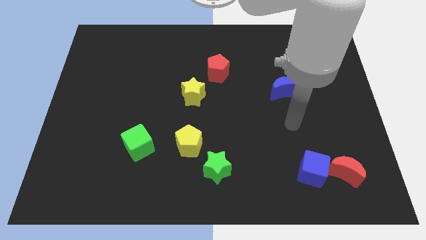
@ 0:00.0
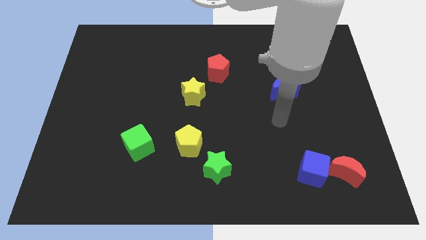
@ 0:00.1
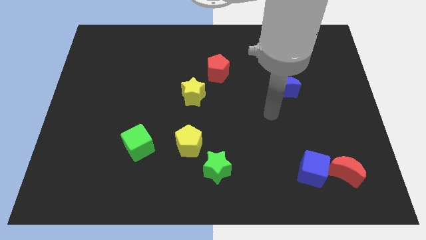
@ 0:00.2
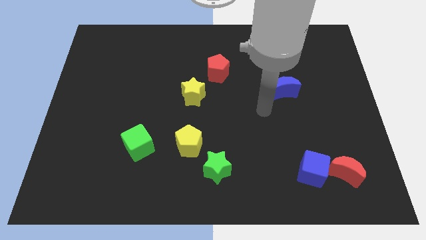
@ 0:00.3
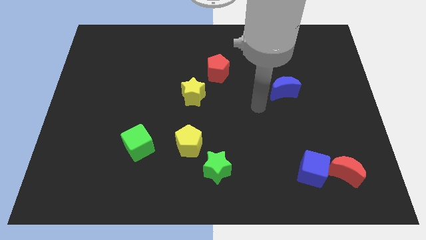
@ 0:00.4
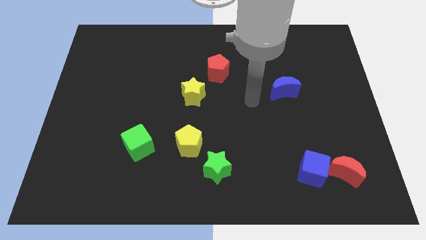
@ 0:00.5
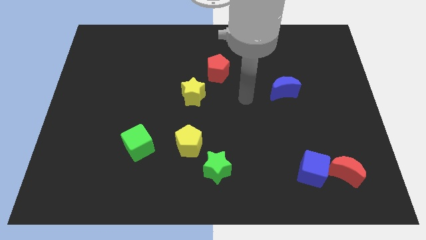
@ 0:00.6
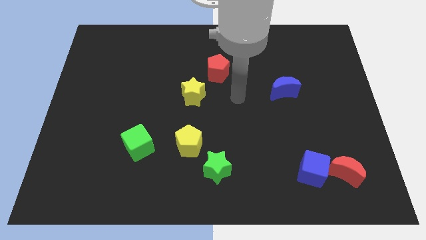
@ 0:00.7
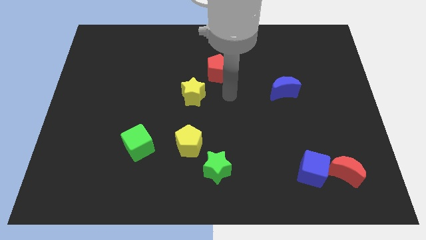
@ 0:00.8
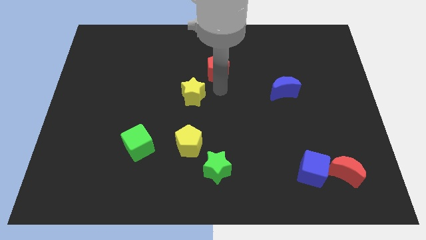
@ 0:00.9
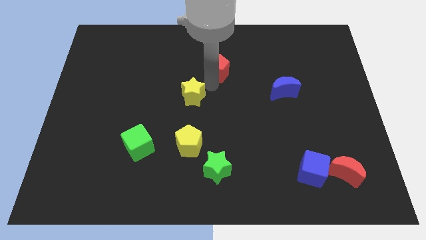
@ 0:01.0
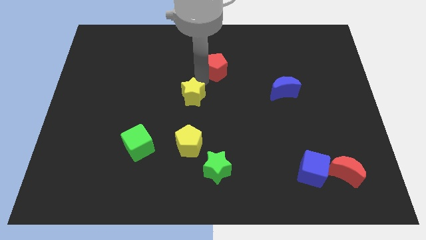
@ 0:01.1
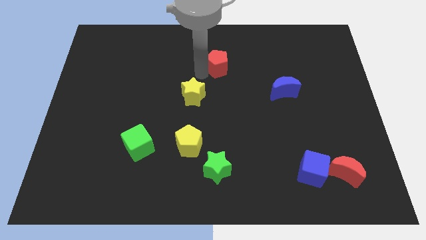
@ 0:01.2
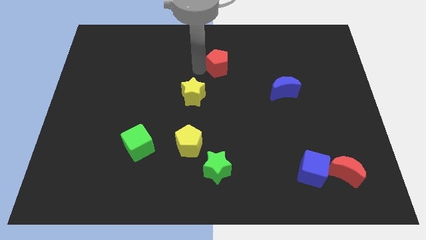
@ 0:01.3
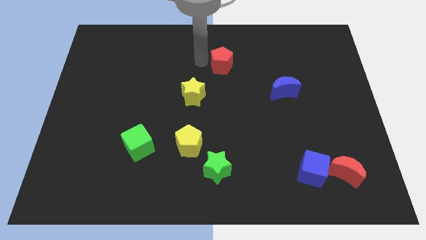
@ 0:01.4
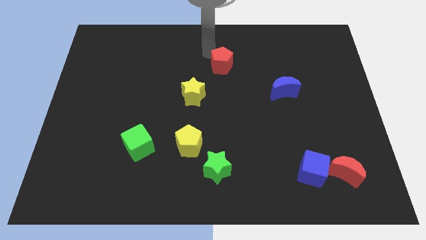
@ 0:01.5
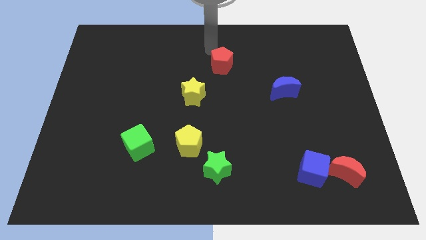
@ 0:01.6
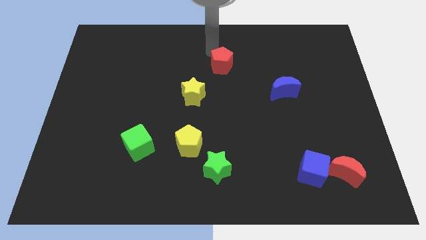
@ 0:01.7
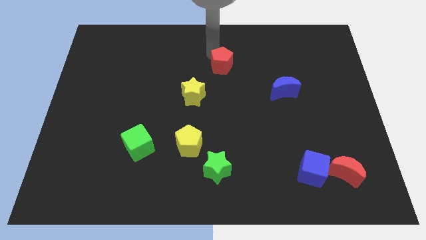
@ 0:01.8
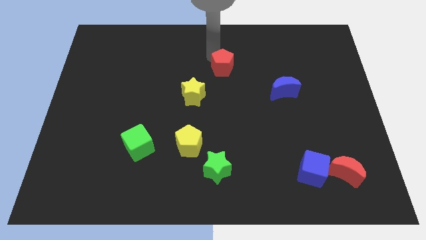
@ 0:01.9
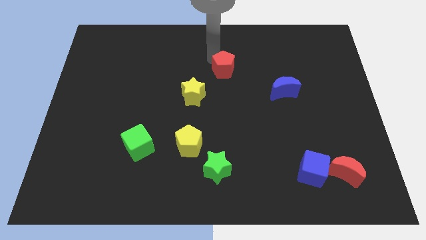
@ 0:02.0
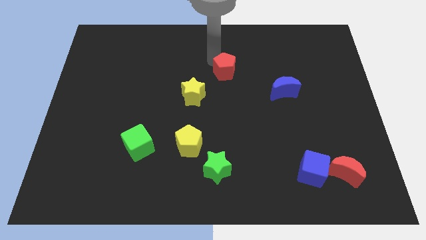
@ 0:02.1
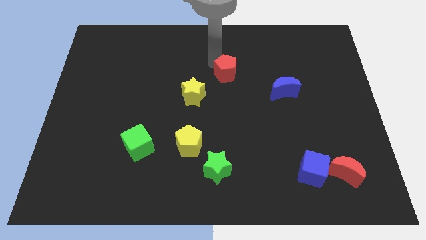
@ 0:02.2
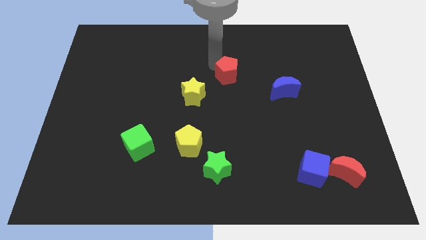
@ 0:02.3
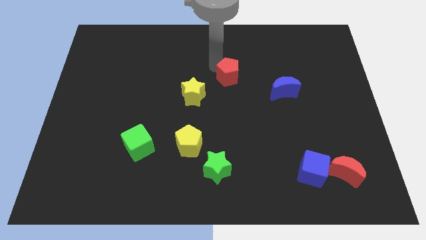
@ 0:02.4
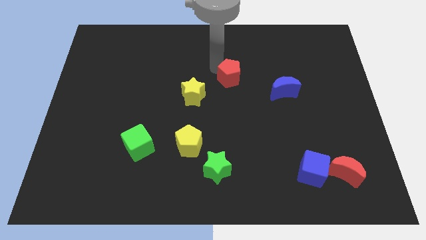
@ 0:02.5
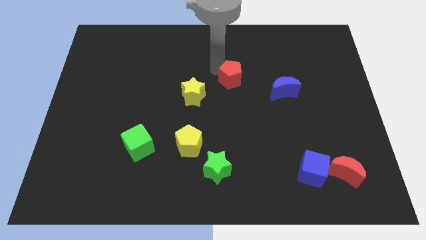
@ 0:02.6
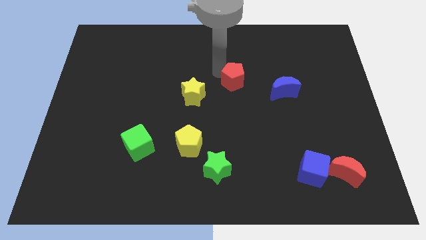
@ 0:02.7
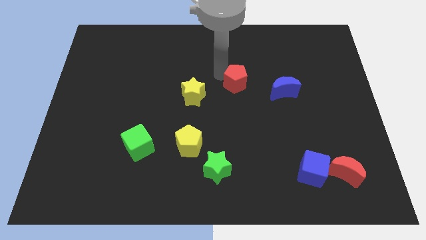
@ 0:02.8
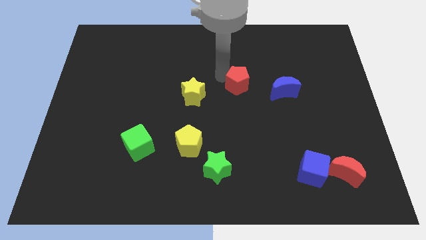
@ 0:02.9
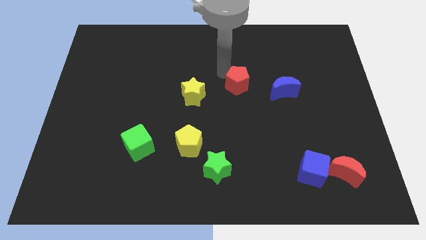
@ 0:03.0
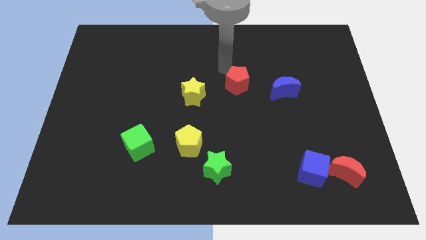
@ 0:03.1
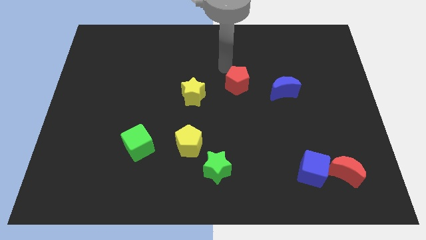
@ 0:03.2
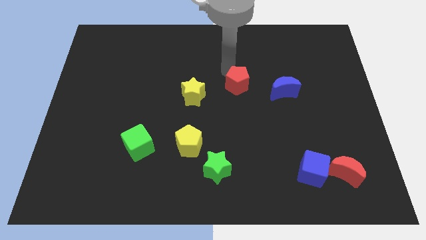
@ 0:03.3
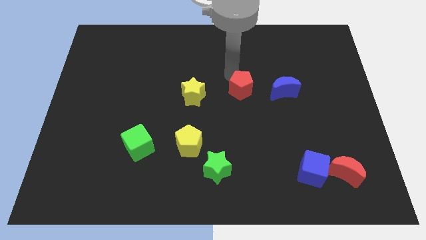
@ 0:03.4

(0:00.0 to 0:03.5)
push the red pentagon a bit downwards and then right

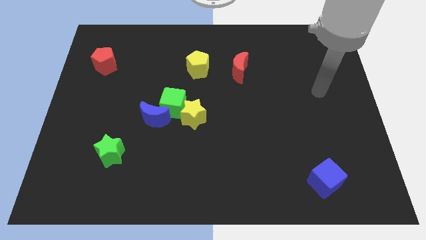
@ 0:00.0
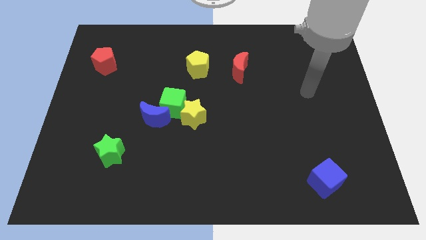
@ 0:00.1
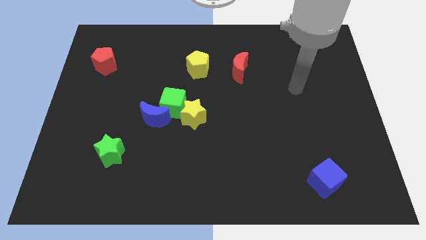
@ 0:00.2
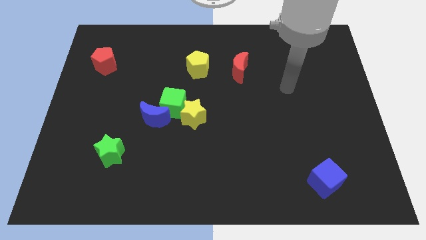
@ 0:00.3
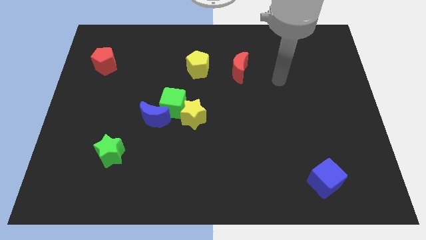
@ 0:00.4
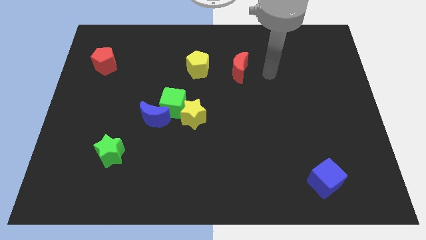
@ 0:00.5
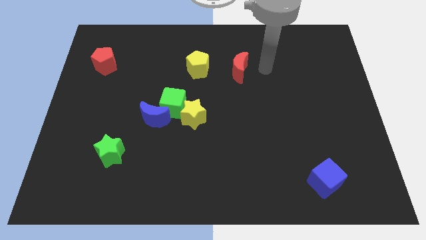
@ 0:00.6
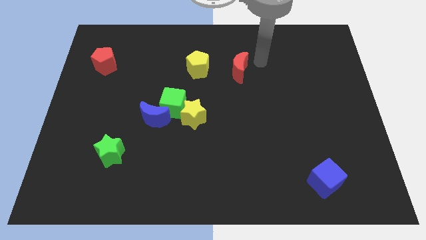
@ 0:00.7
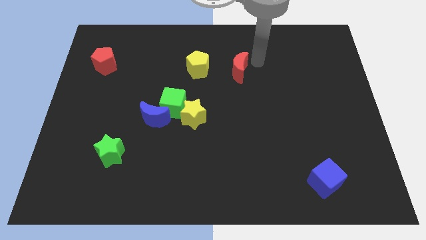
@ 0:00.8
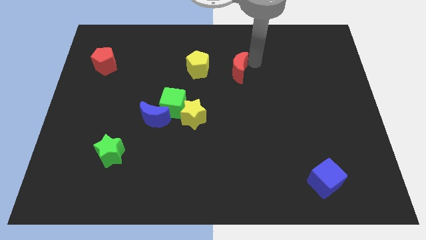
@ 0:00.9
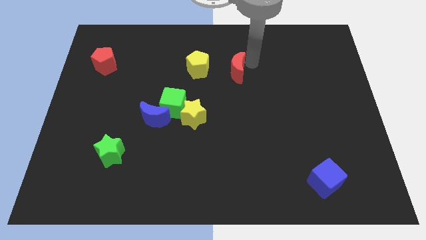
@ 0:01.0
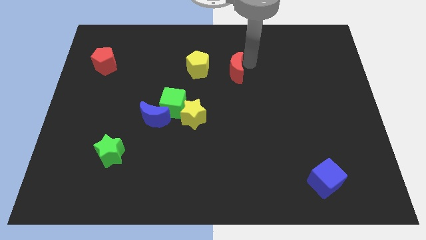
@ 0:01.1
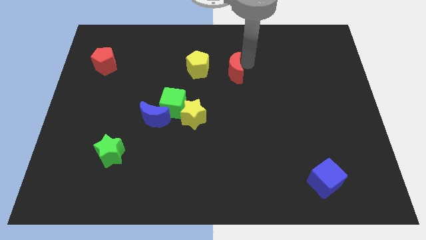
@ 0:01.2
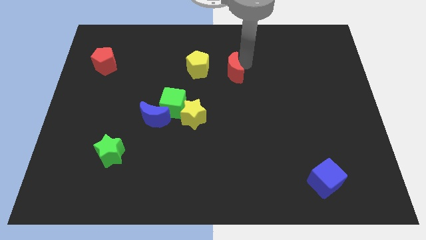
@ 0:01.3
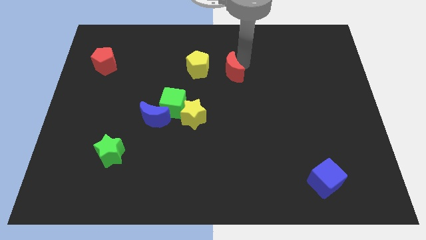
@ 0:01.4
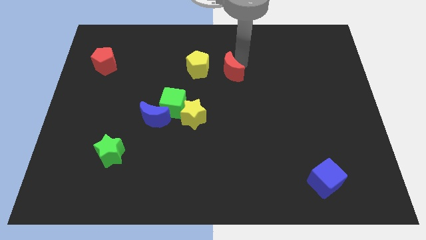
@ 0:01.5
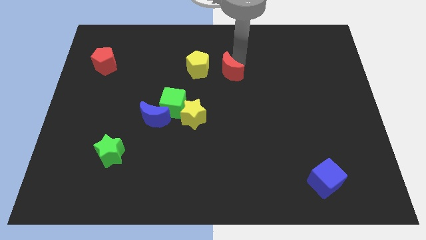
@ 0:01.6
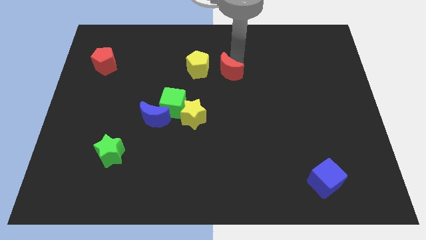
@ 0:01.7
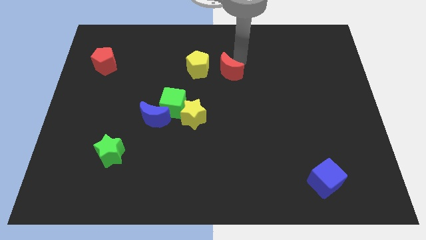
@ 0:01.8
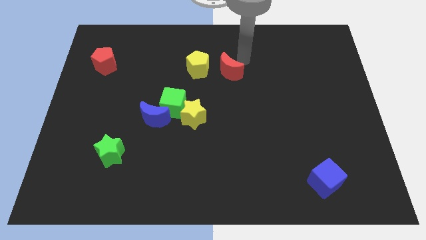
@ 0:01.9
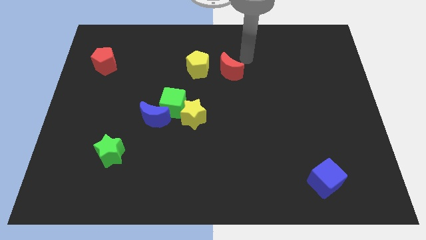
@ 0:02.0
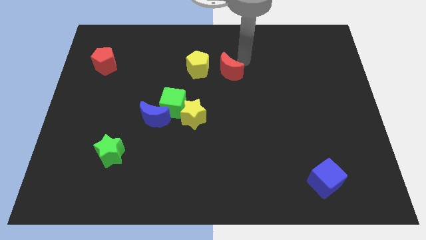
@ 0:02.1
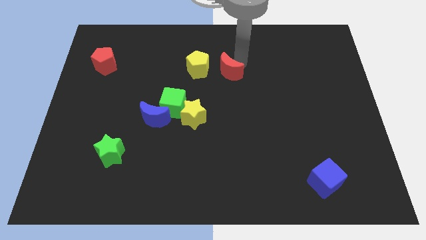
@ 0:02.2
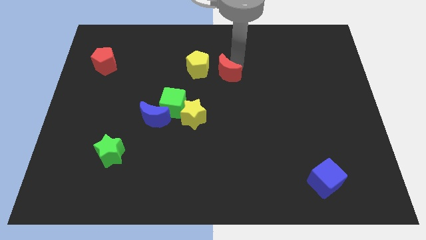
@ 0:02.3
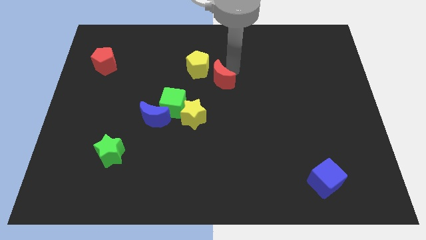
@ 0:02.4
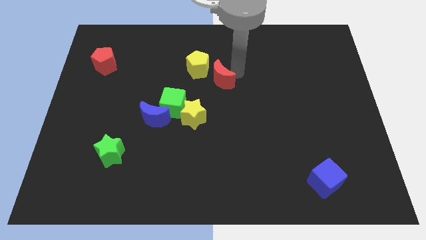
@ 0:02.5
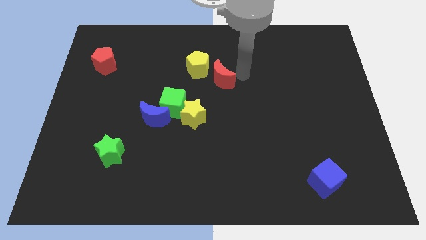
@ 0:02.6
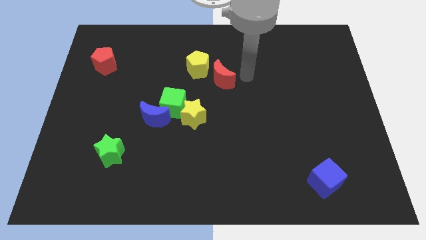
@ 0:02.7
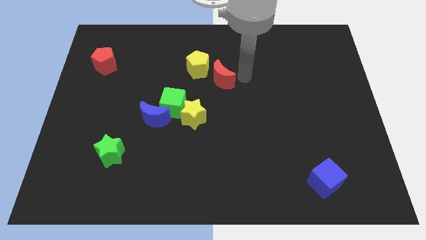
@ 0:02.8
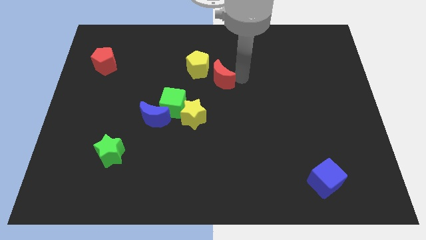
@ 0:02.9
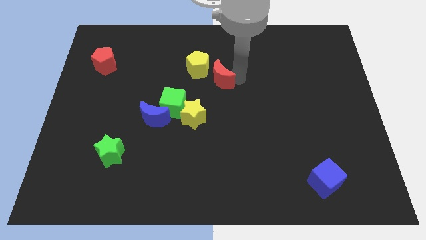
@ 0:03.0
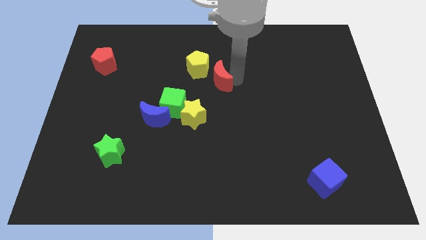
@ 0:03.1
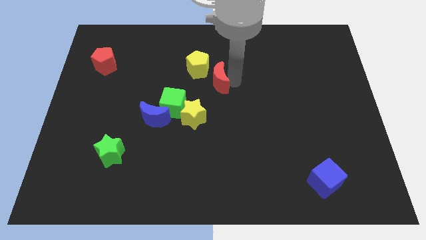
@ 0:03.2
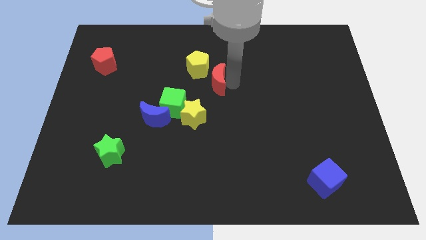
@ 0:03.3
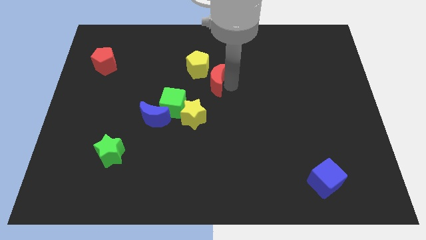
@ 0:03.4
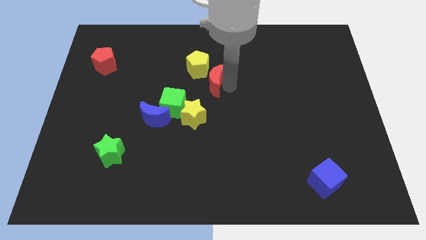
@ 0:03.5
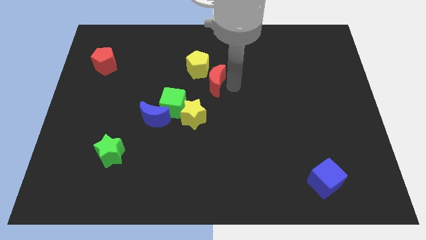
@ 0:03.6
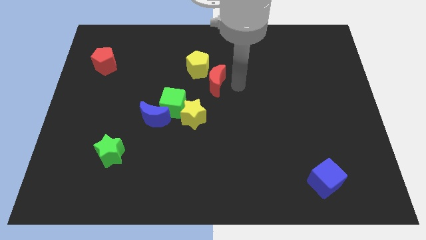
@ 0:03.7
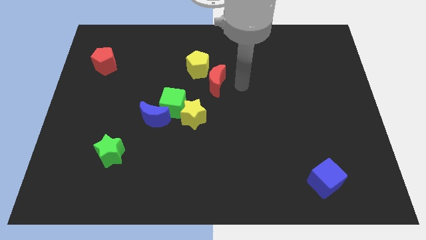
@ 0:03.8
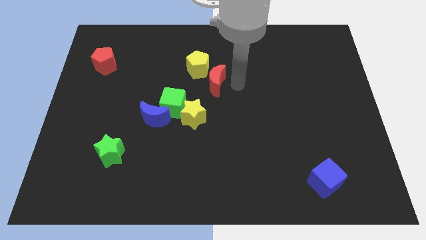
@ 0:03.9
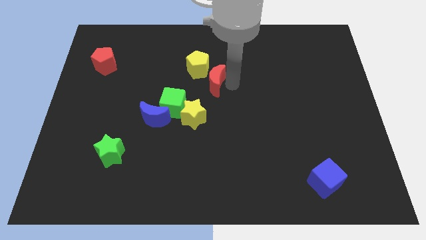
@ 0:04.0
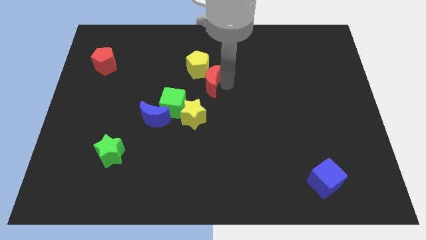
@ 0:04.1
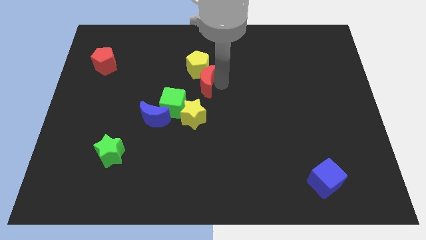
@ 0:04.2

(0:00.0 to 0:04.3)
slide the red moon to the left slightly
